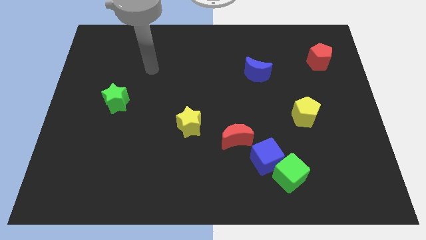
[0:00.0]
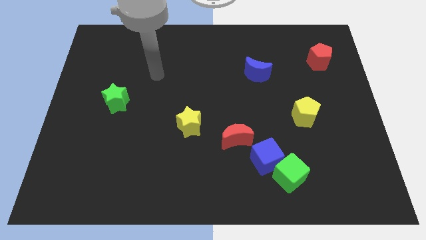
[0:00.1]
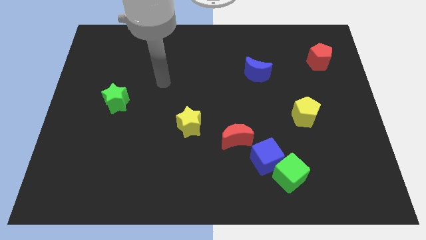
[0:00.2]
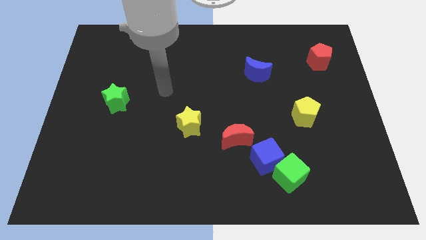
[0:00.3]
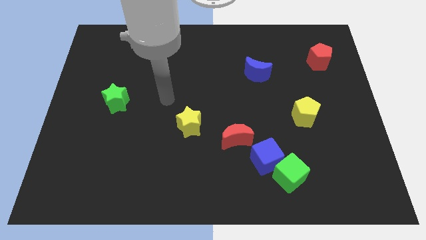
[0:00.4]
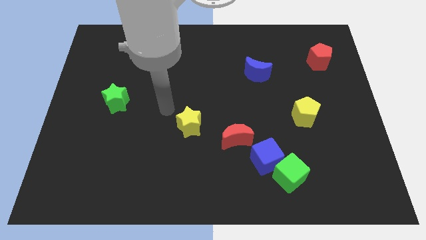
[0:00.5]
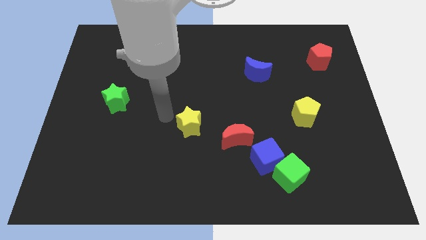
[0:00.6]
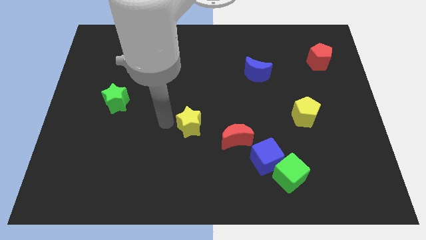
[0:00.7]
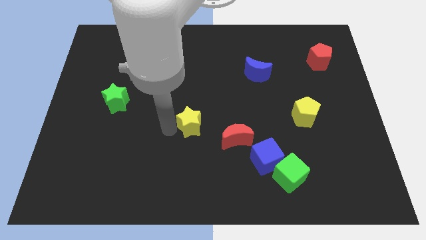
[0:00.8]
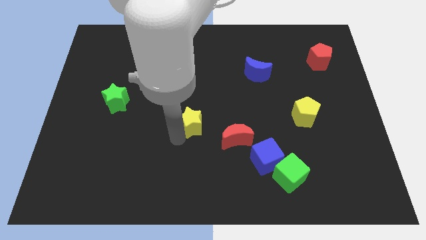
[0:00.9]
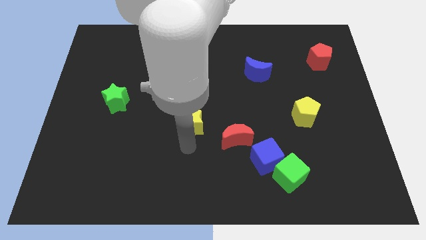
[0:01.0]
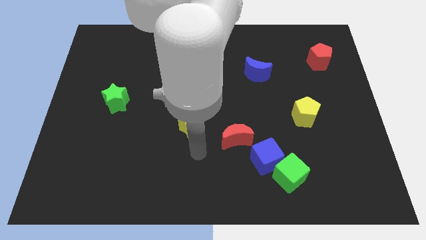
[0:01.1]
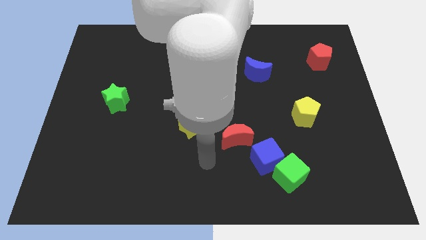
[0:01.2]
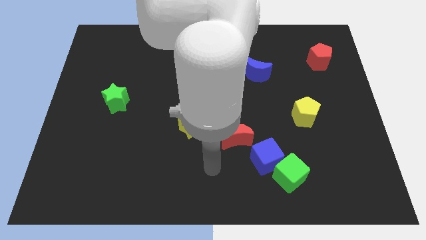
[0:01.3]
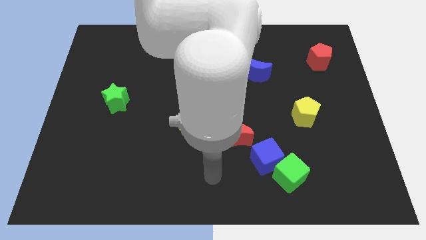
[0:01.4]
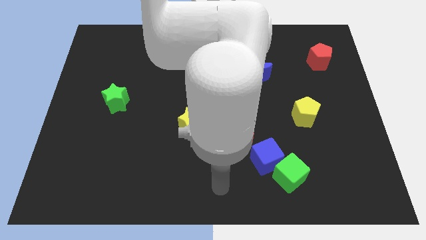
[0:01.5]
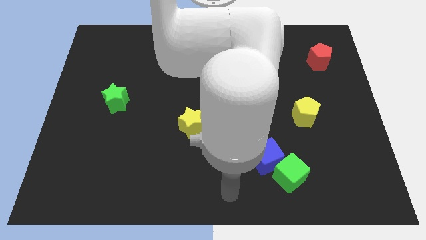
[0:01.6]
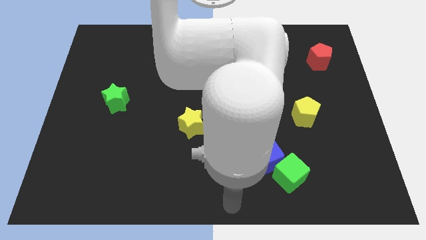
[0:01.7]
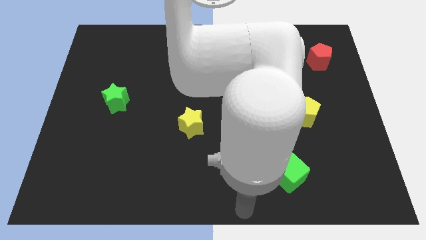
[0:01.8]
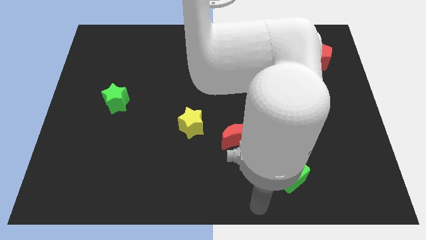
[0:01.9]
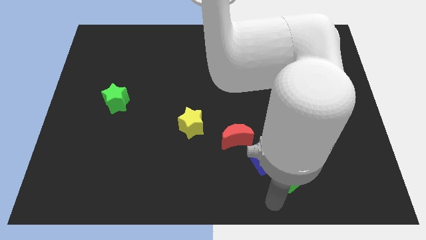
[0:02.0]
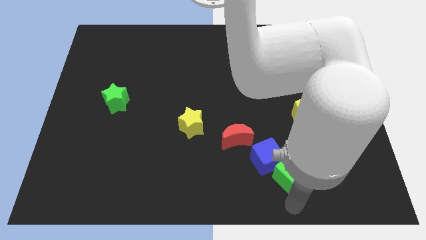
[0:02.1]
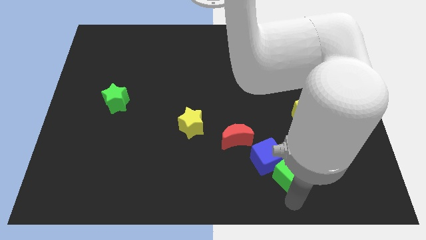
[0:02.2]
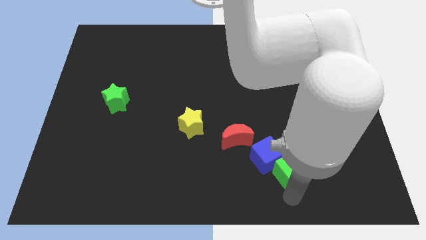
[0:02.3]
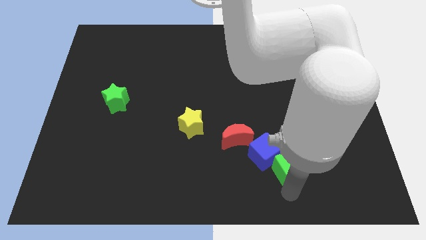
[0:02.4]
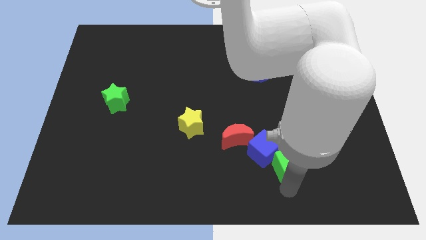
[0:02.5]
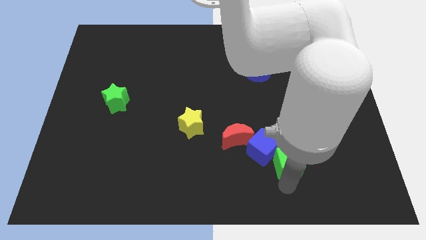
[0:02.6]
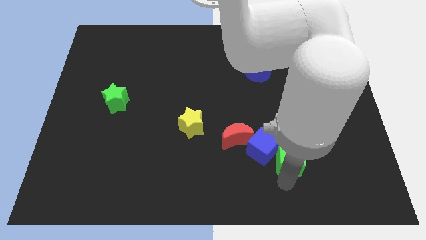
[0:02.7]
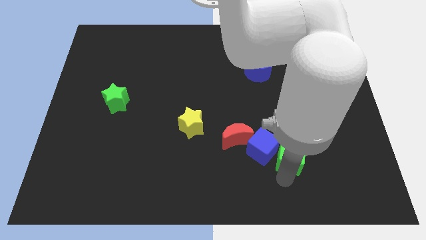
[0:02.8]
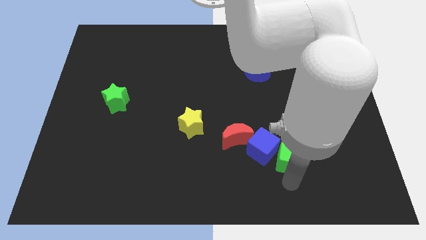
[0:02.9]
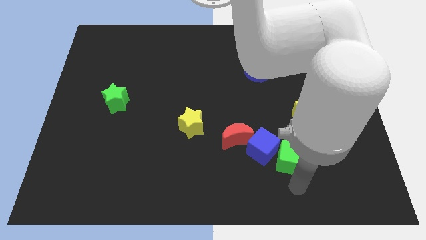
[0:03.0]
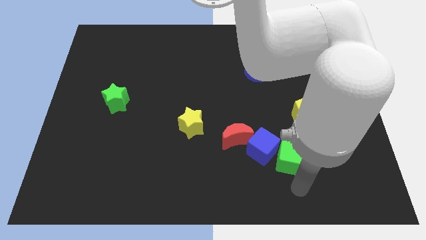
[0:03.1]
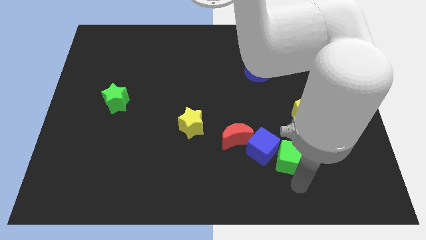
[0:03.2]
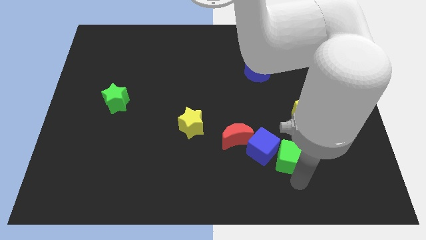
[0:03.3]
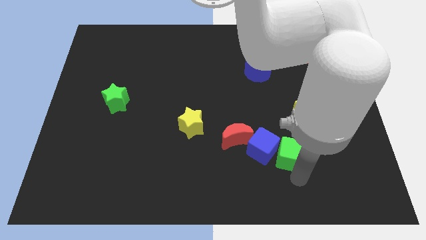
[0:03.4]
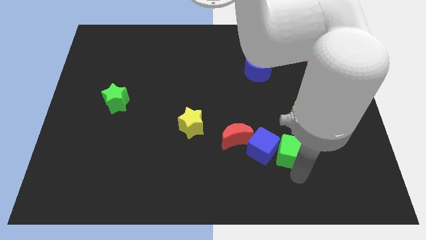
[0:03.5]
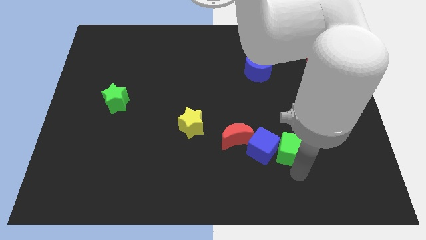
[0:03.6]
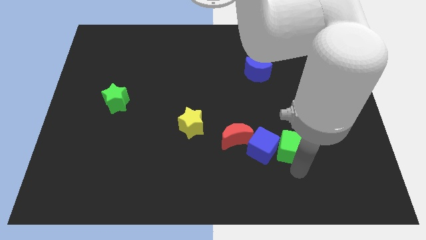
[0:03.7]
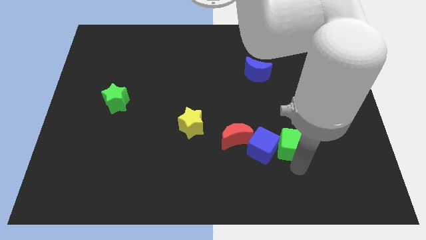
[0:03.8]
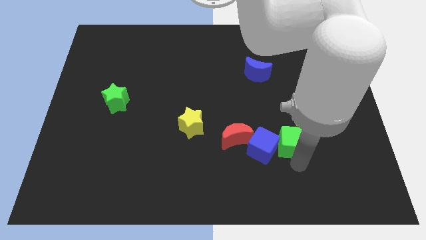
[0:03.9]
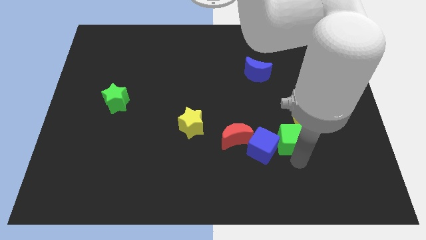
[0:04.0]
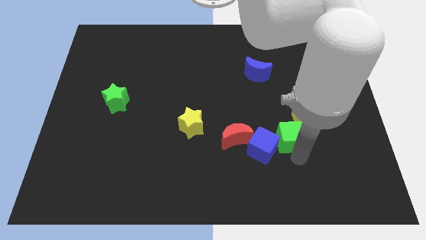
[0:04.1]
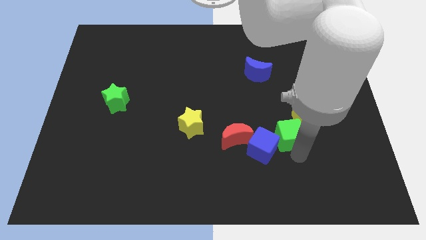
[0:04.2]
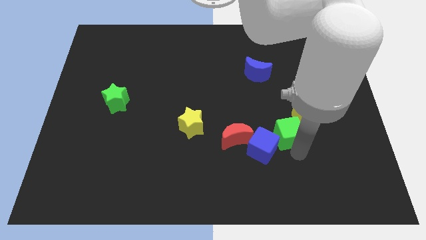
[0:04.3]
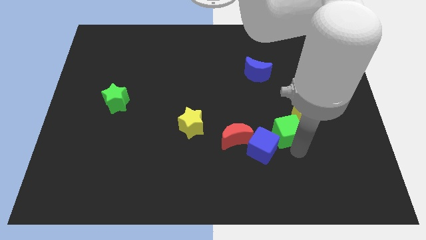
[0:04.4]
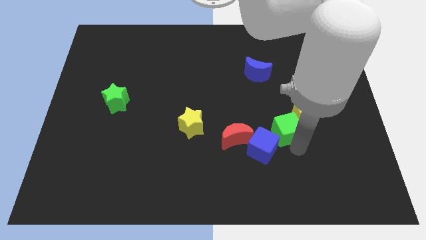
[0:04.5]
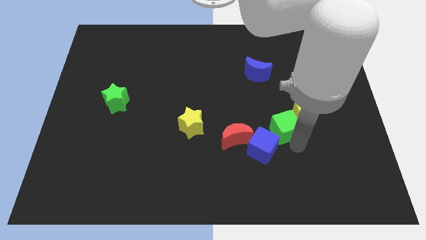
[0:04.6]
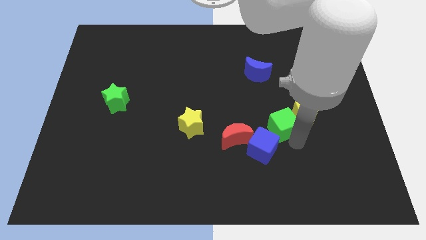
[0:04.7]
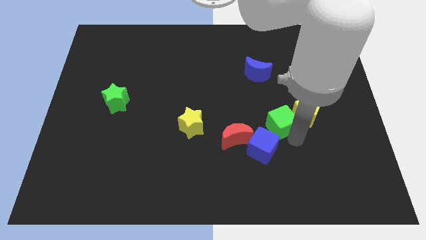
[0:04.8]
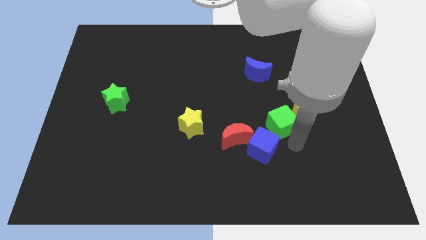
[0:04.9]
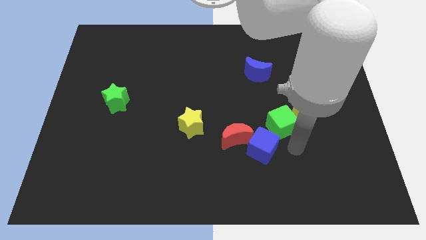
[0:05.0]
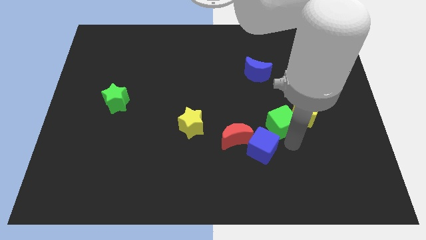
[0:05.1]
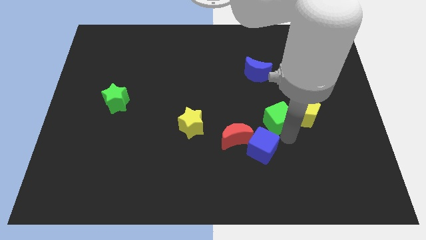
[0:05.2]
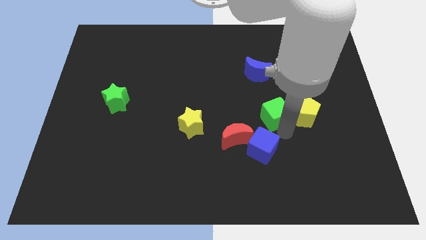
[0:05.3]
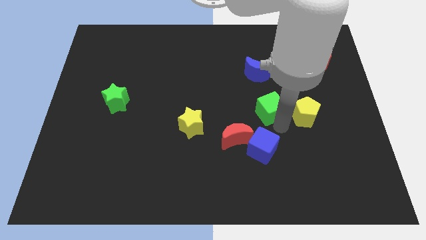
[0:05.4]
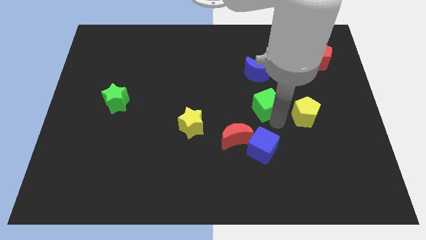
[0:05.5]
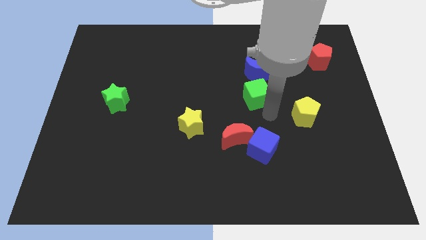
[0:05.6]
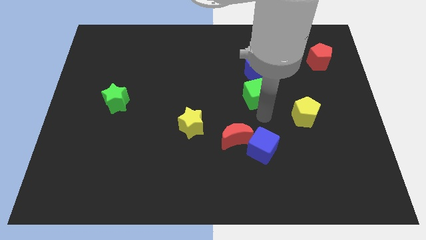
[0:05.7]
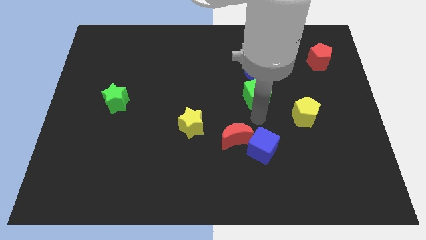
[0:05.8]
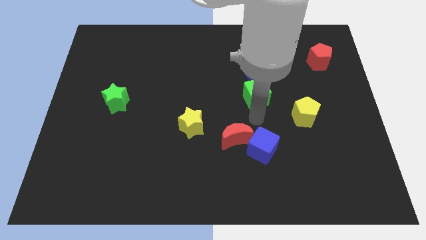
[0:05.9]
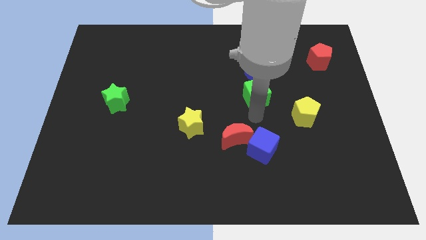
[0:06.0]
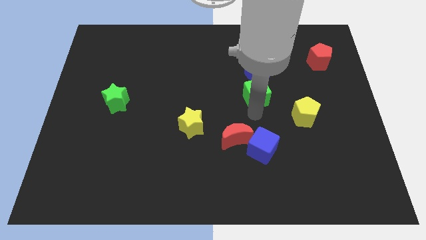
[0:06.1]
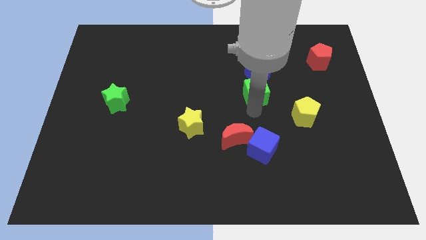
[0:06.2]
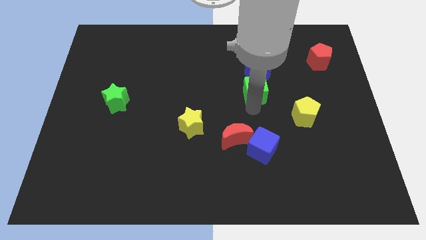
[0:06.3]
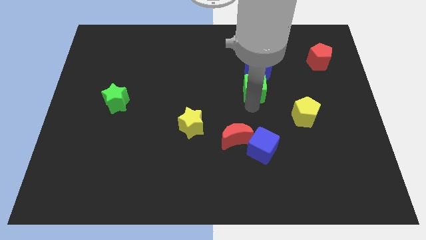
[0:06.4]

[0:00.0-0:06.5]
slide the green cube towards the blue moon
